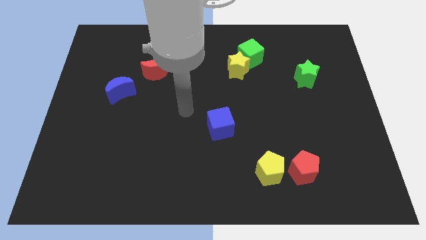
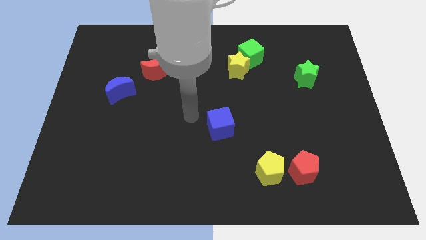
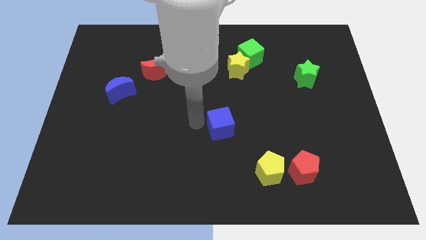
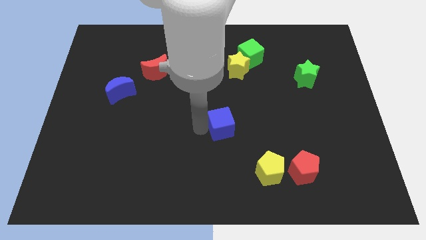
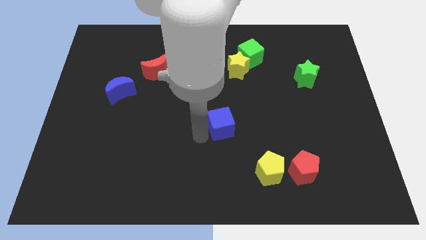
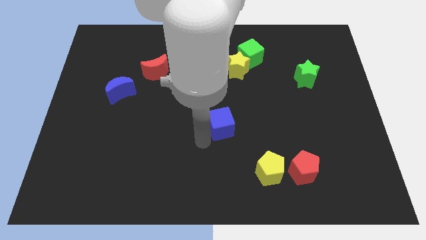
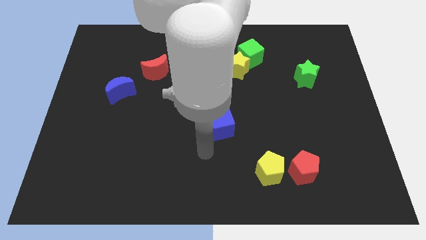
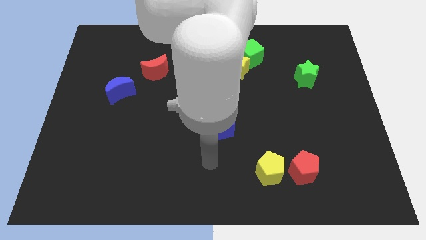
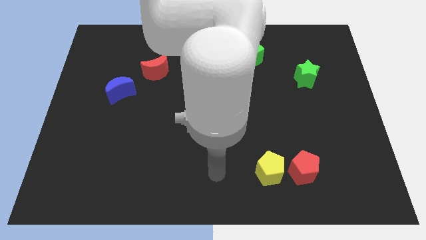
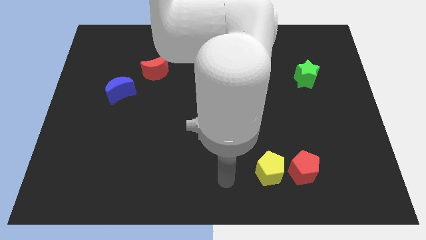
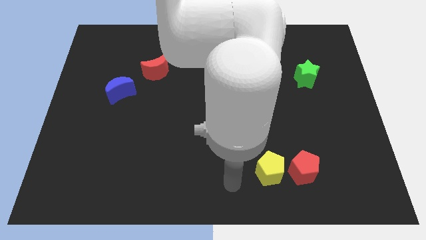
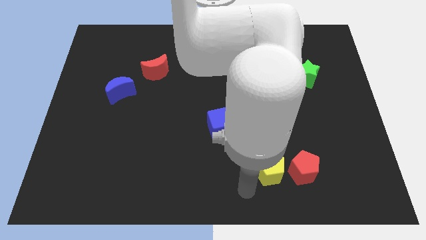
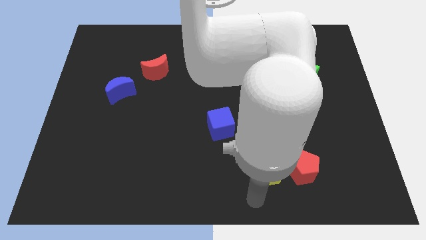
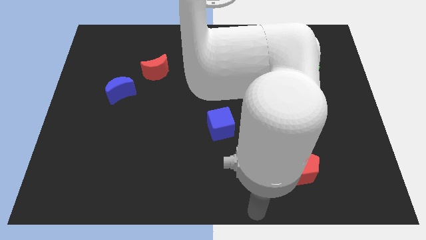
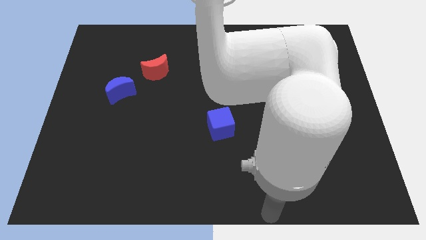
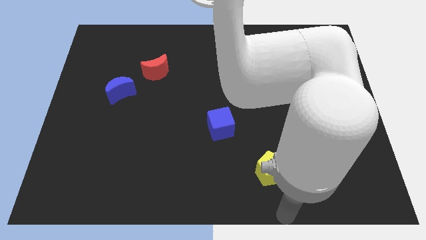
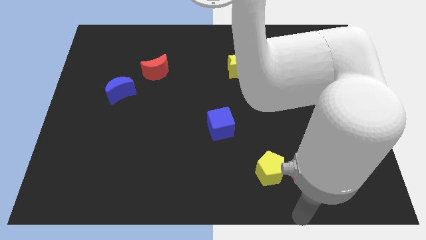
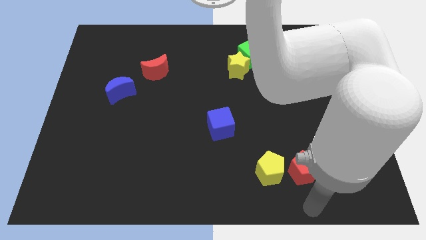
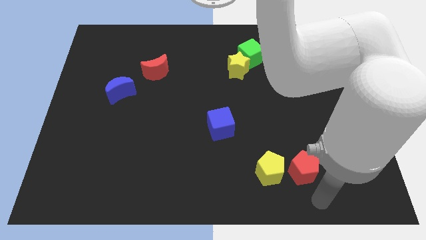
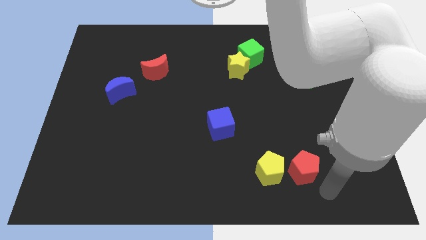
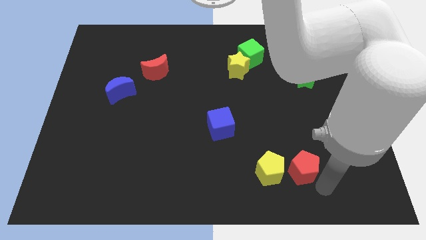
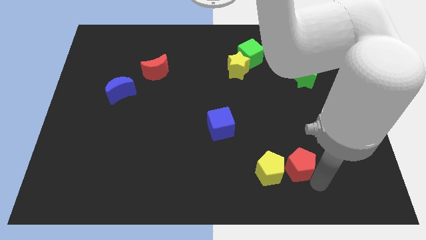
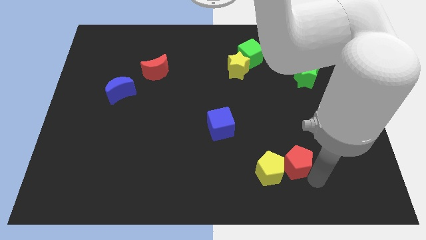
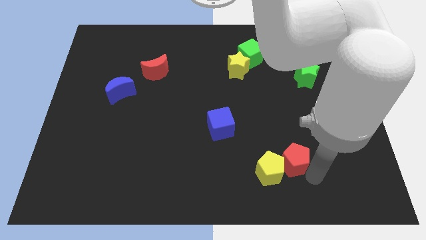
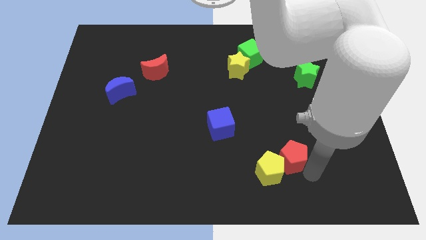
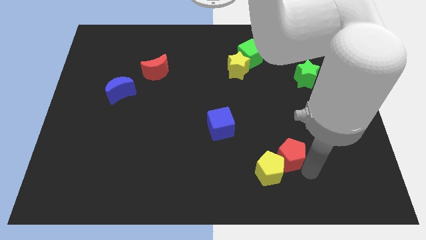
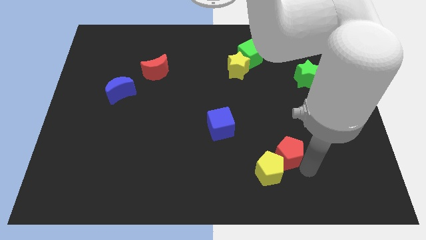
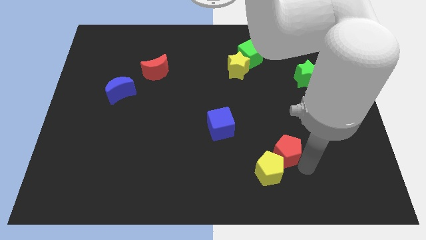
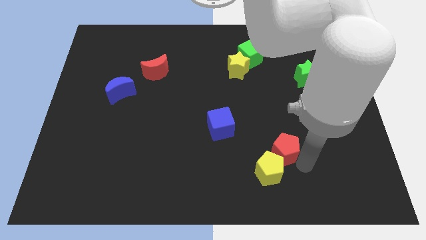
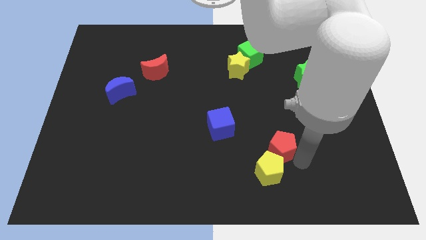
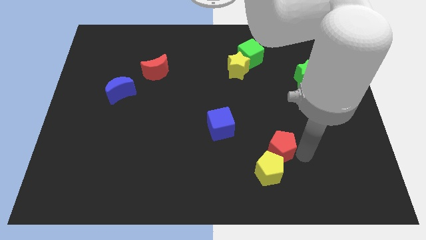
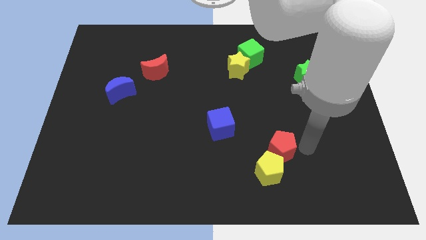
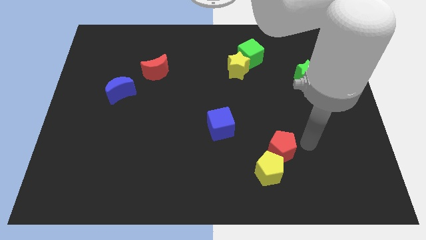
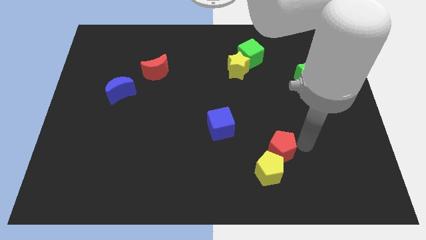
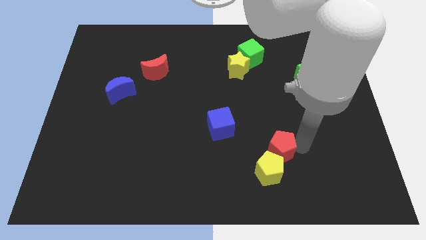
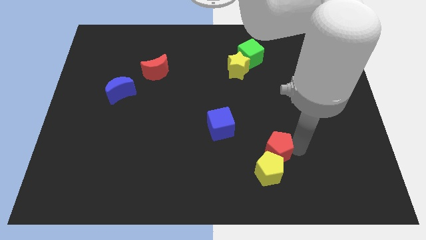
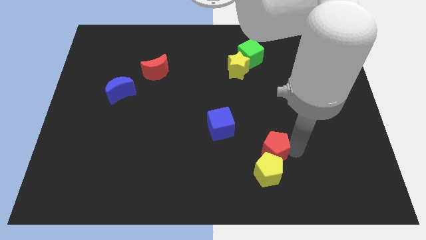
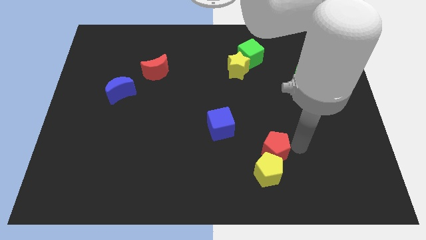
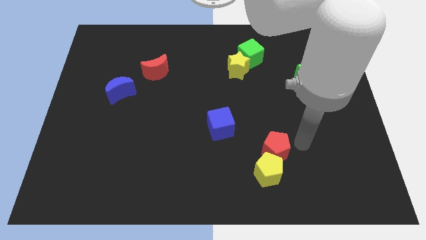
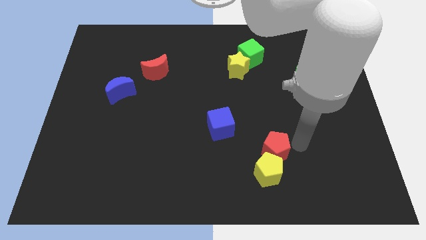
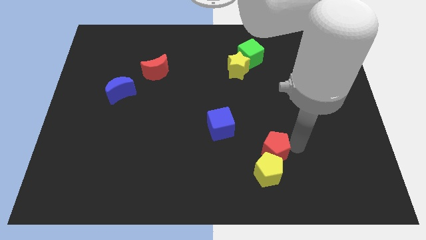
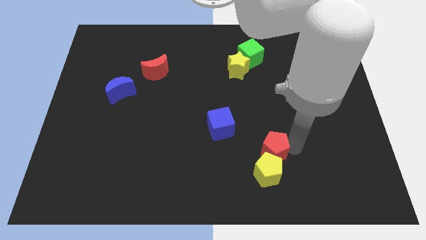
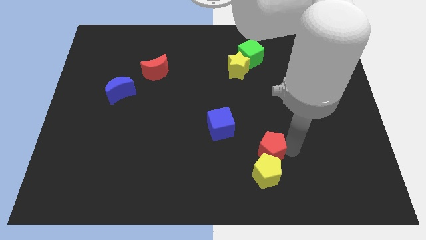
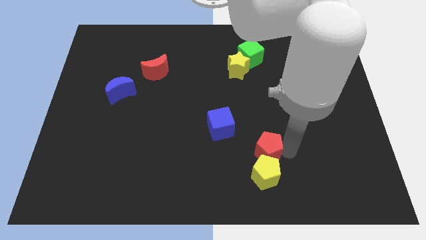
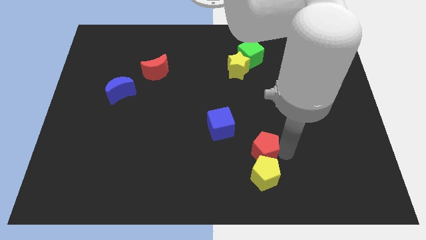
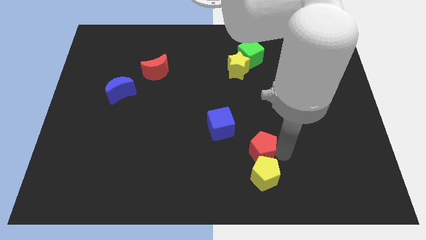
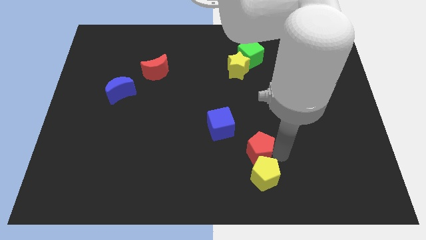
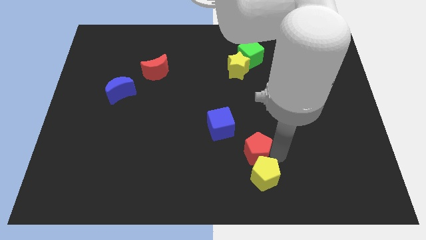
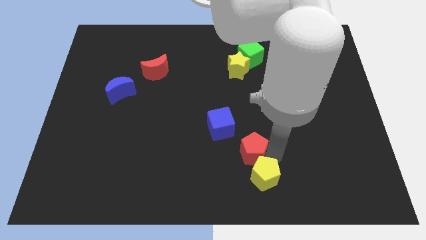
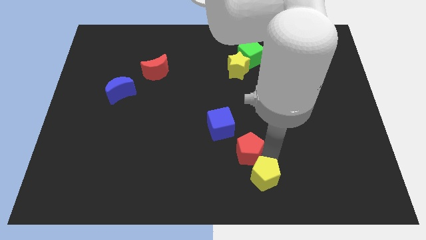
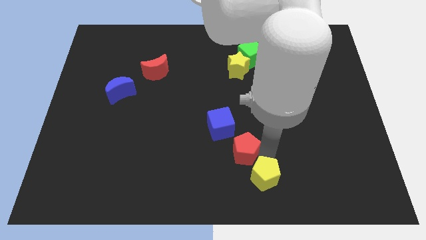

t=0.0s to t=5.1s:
move the red pentagon below the blue cube

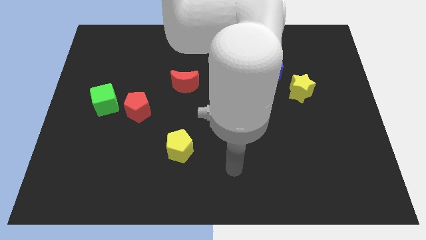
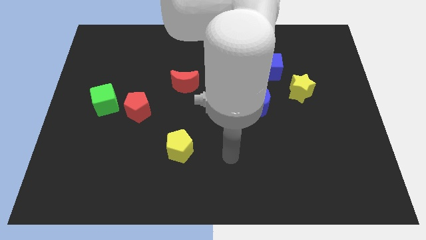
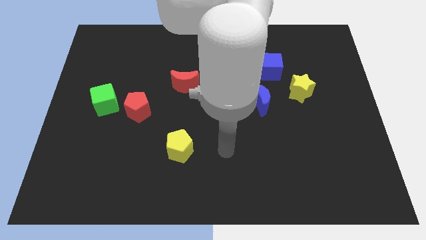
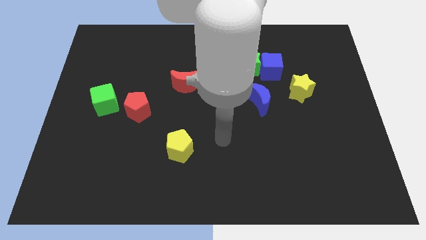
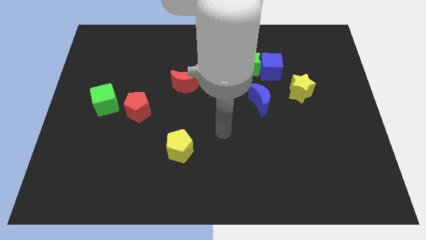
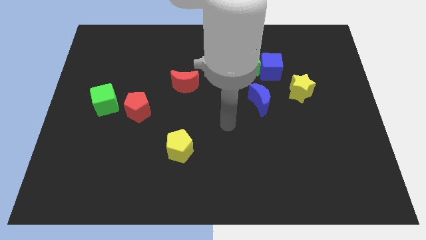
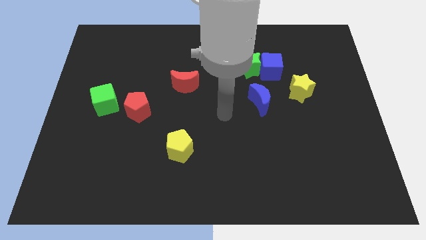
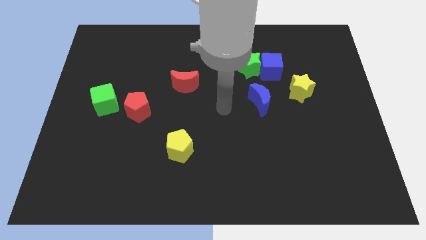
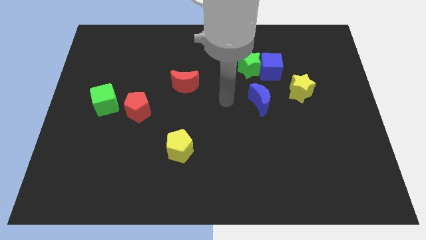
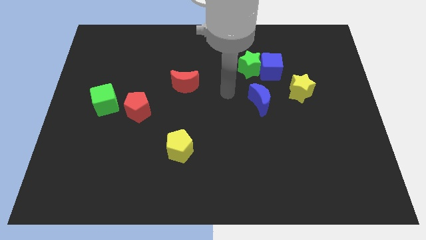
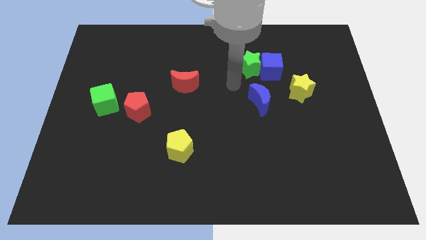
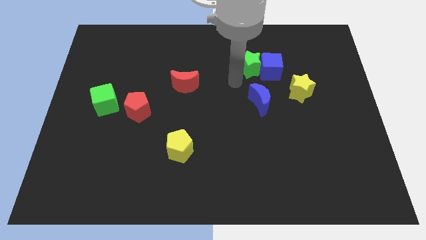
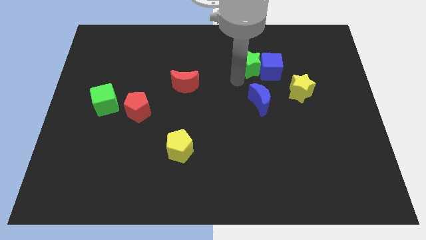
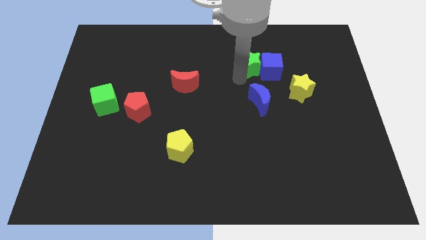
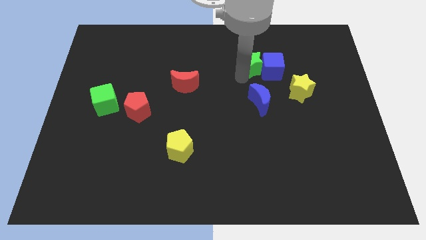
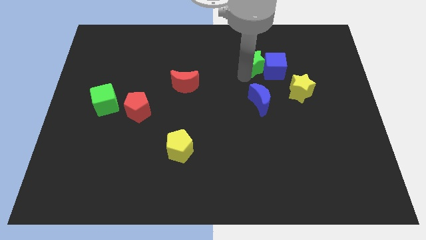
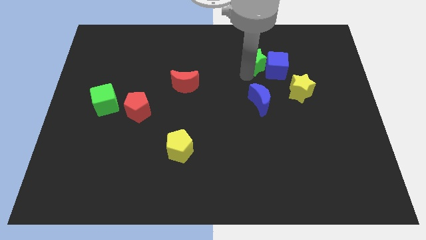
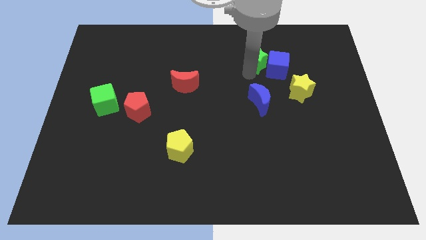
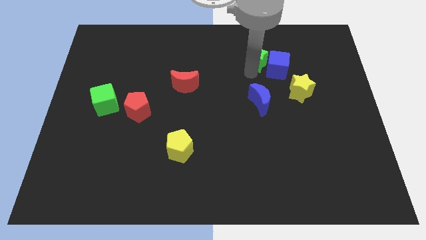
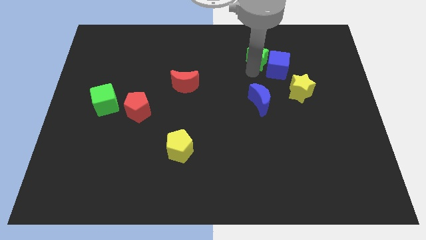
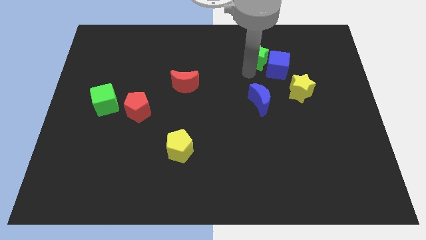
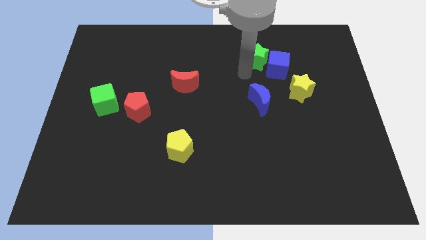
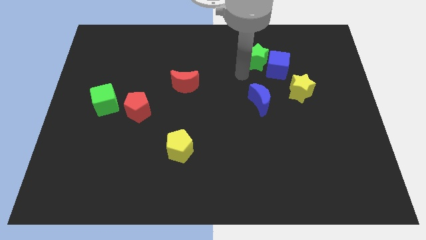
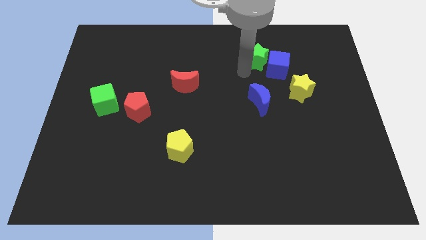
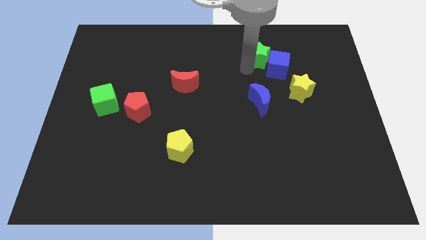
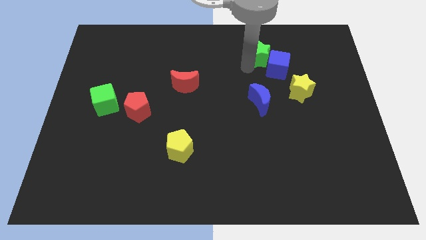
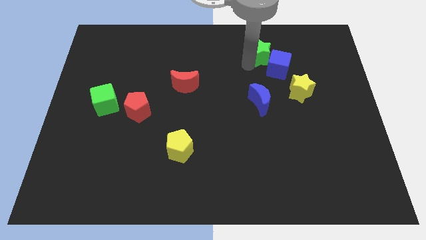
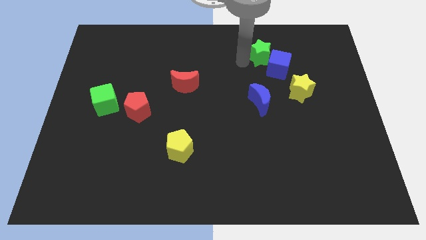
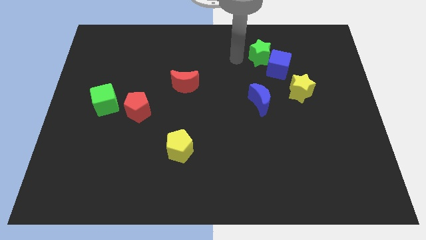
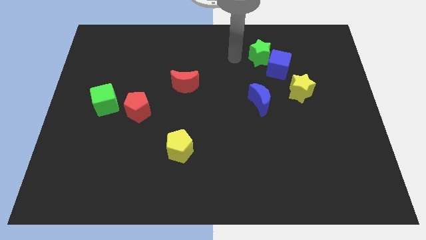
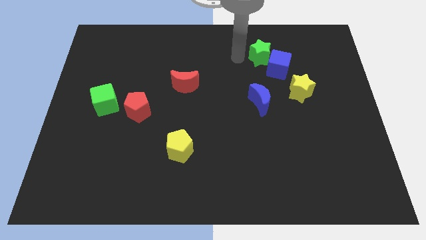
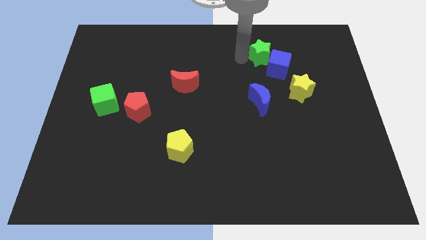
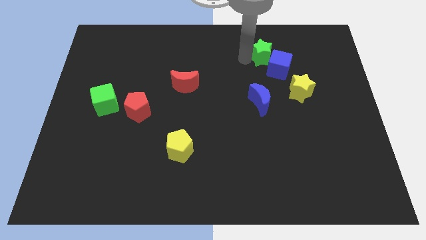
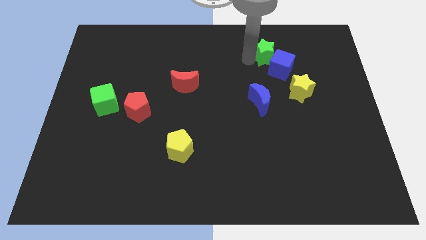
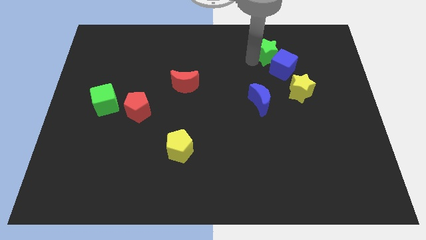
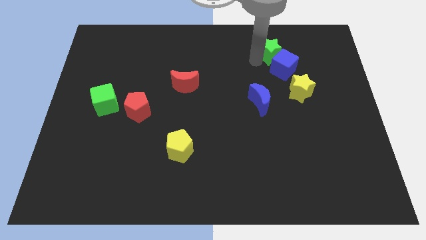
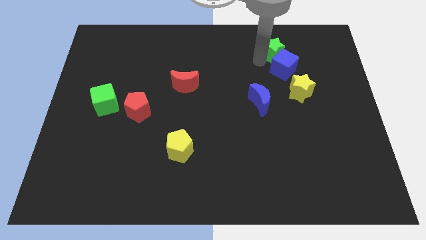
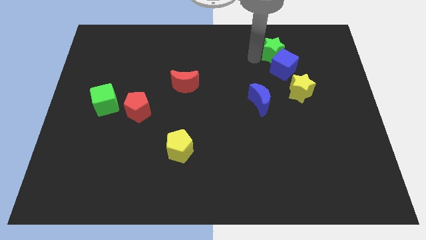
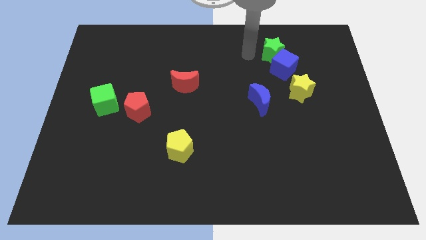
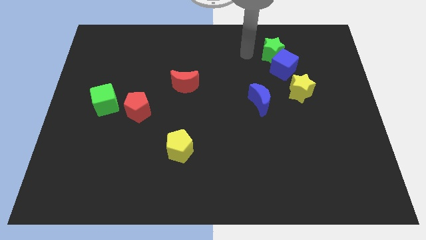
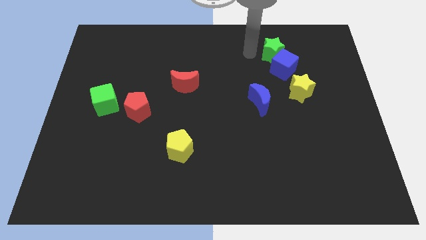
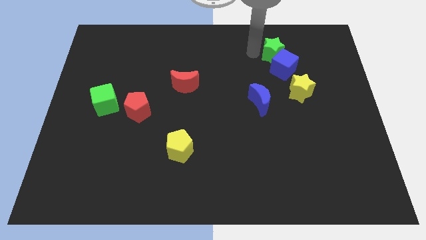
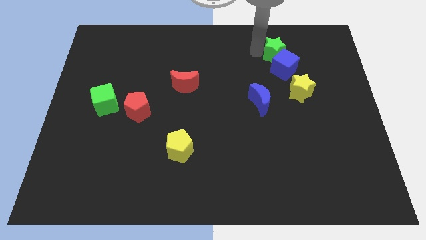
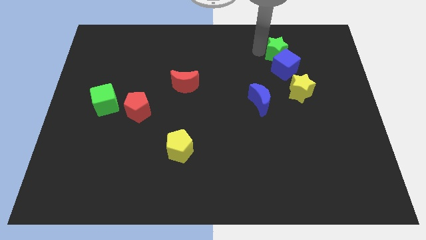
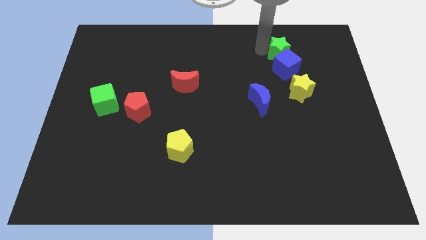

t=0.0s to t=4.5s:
move the green star to the top right side of the blue cube
